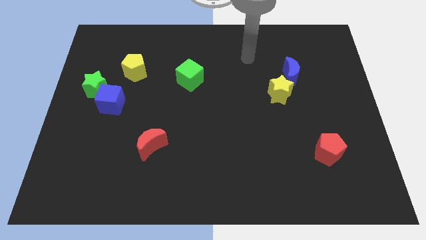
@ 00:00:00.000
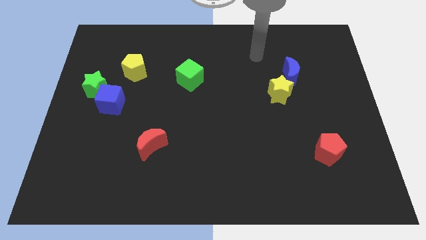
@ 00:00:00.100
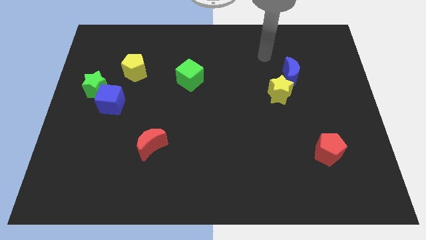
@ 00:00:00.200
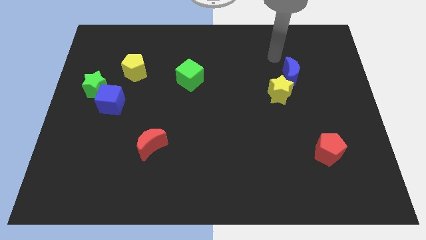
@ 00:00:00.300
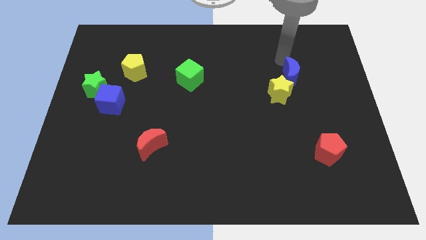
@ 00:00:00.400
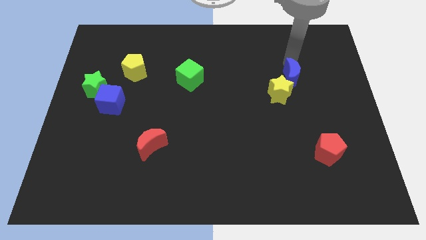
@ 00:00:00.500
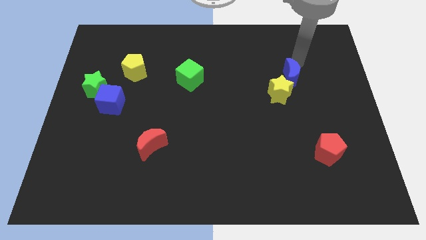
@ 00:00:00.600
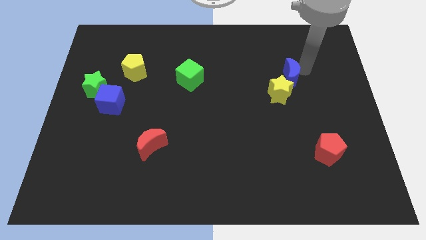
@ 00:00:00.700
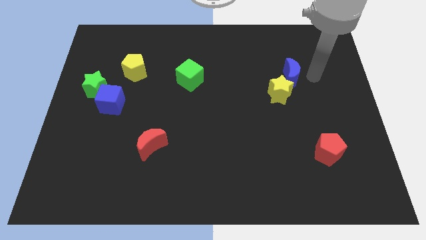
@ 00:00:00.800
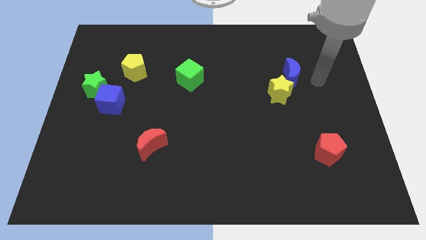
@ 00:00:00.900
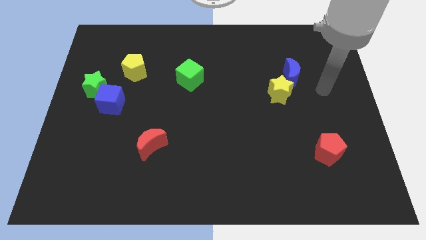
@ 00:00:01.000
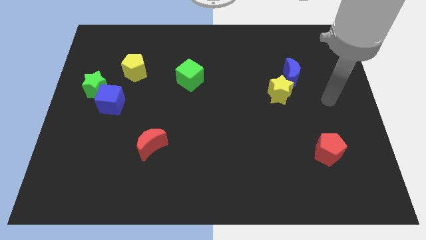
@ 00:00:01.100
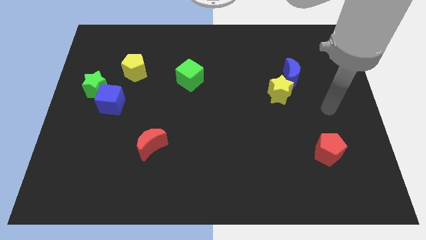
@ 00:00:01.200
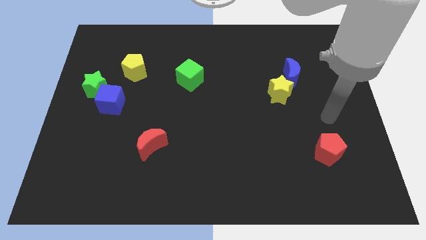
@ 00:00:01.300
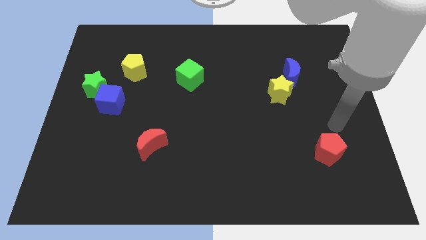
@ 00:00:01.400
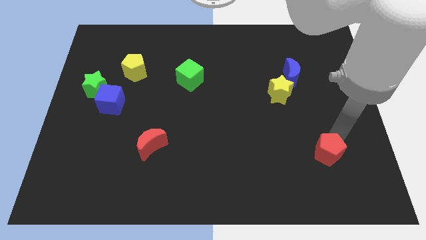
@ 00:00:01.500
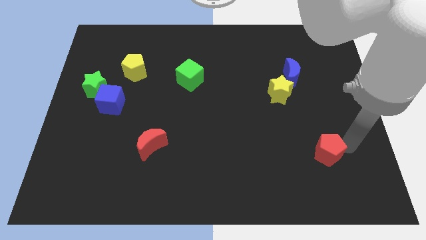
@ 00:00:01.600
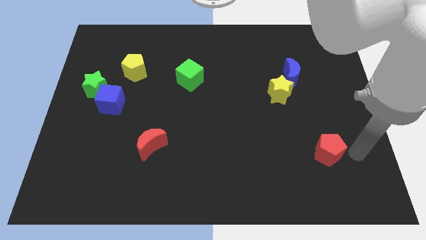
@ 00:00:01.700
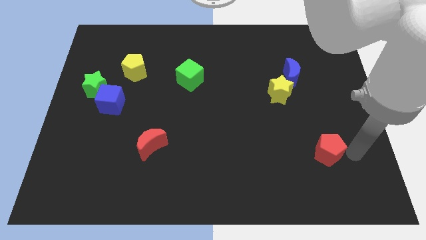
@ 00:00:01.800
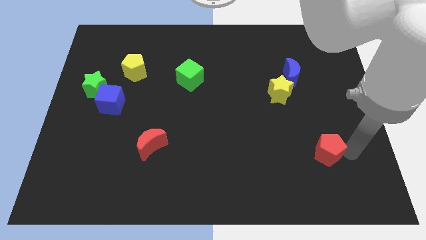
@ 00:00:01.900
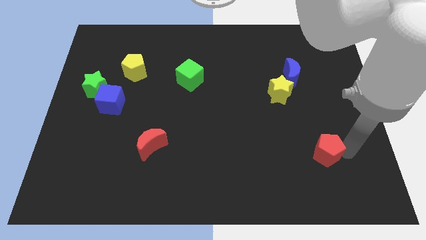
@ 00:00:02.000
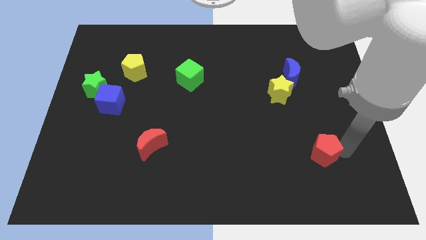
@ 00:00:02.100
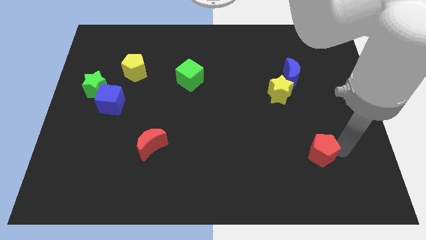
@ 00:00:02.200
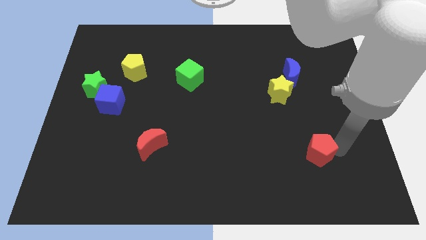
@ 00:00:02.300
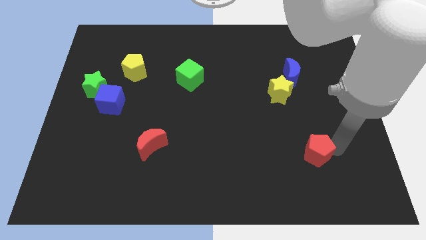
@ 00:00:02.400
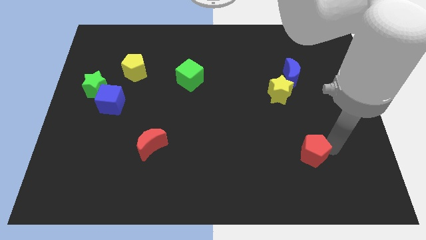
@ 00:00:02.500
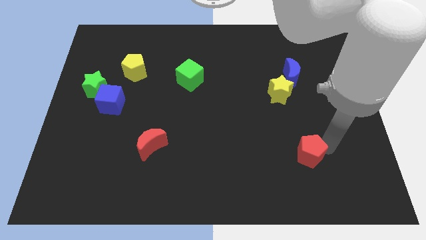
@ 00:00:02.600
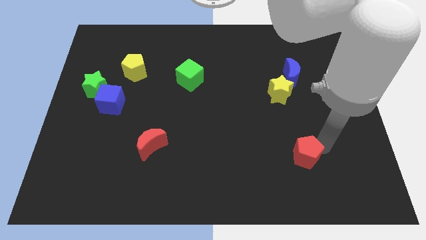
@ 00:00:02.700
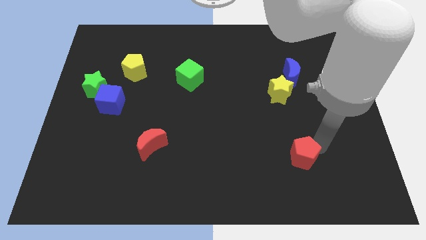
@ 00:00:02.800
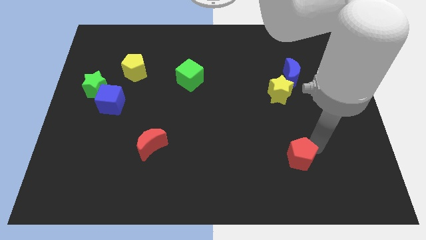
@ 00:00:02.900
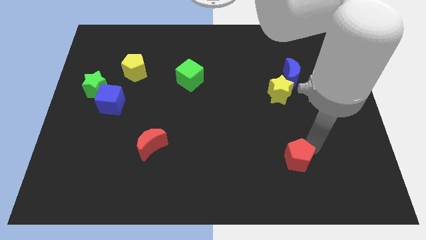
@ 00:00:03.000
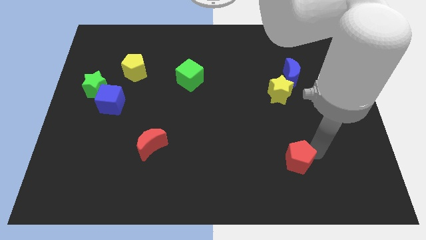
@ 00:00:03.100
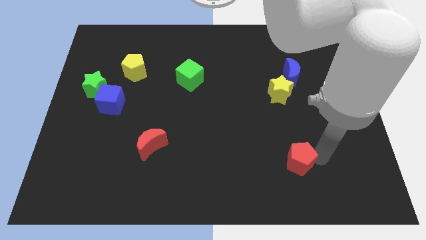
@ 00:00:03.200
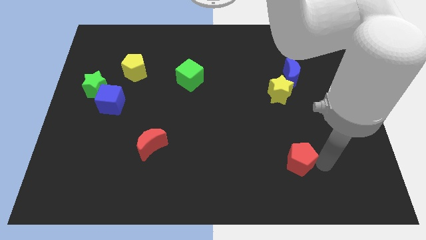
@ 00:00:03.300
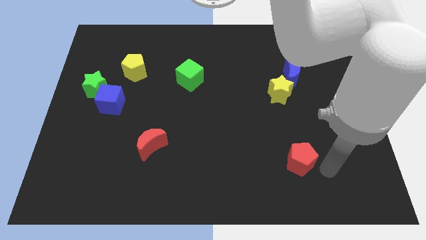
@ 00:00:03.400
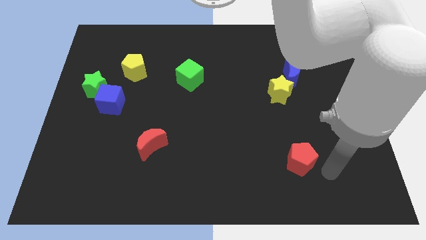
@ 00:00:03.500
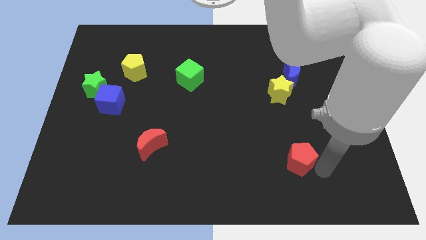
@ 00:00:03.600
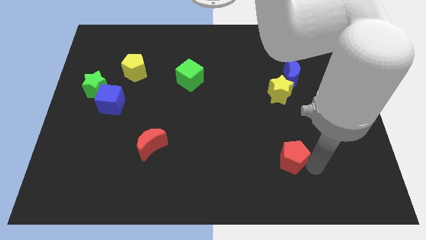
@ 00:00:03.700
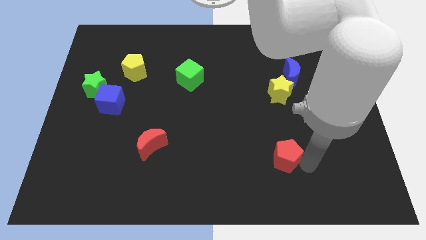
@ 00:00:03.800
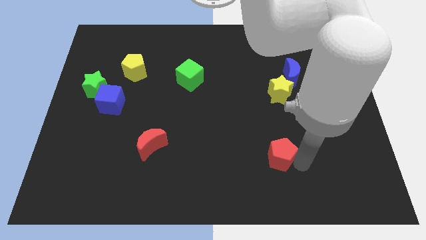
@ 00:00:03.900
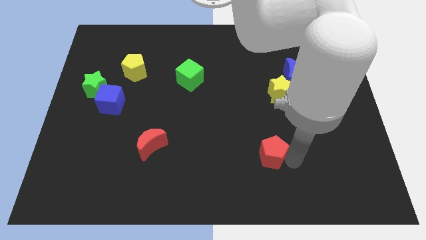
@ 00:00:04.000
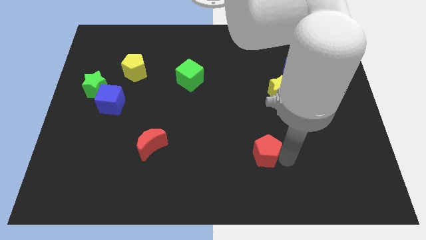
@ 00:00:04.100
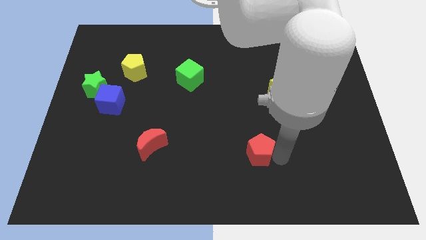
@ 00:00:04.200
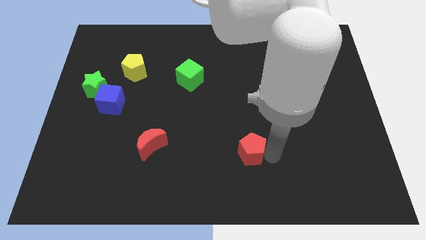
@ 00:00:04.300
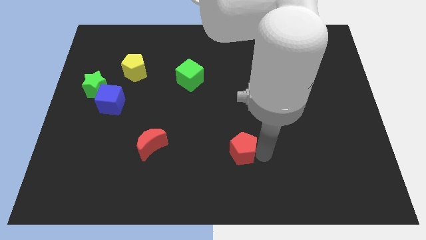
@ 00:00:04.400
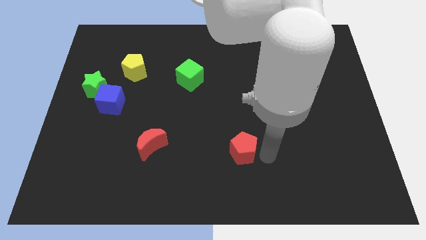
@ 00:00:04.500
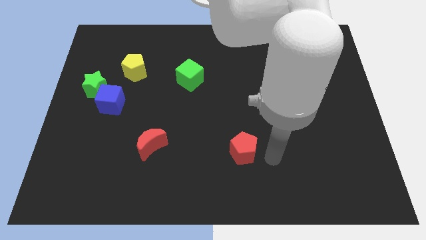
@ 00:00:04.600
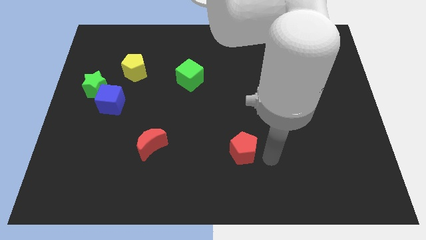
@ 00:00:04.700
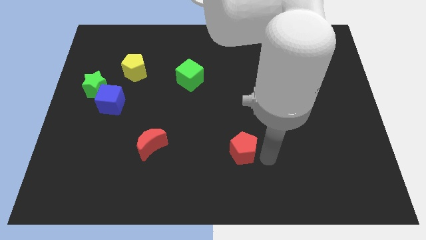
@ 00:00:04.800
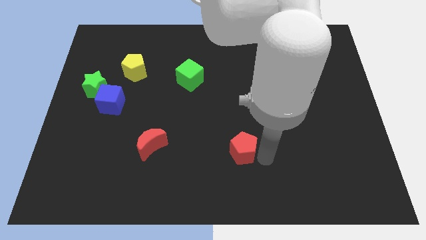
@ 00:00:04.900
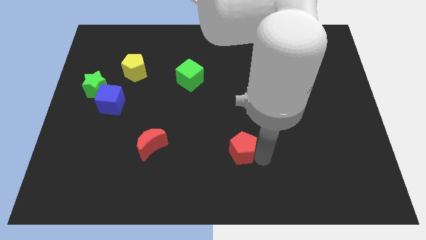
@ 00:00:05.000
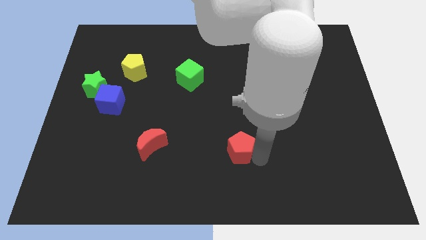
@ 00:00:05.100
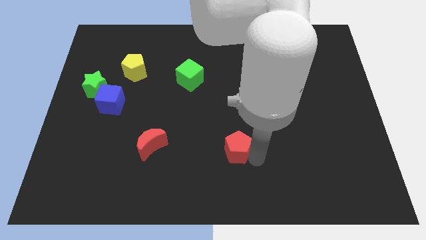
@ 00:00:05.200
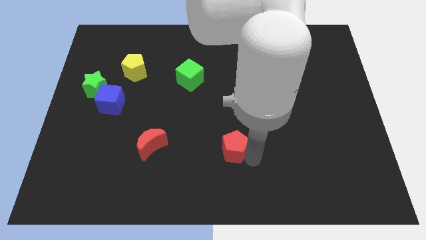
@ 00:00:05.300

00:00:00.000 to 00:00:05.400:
slide the red pentagon to the left

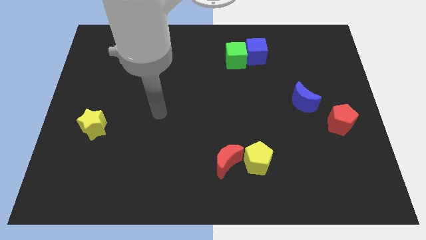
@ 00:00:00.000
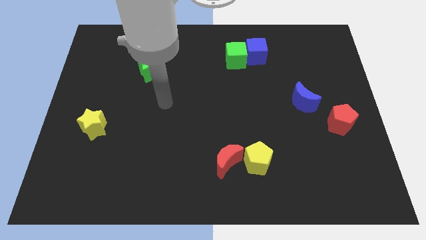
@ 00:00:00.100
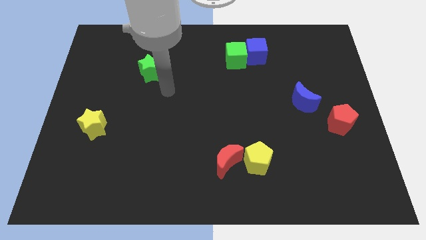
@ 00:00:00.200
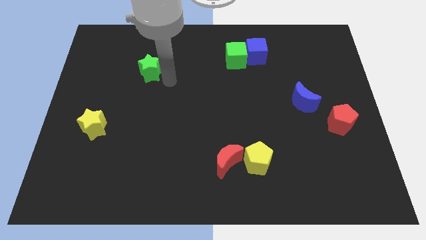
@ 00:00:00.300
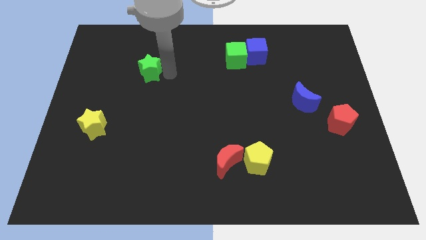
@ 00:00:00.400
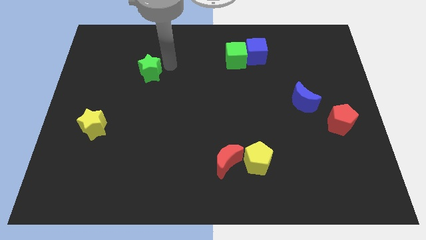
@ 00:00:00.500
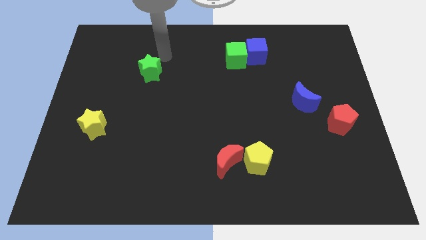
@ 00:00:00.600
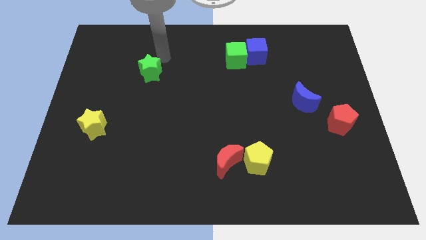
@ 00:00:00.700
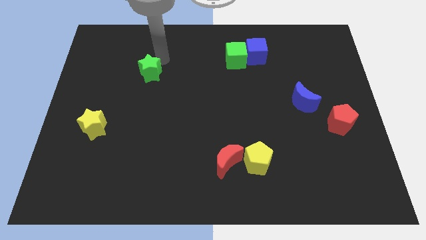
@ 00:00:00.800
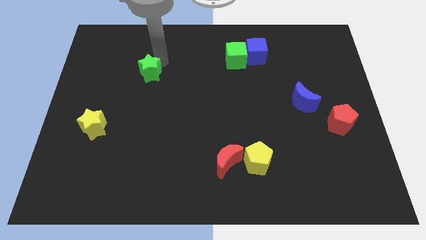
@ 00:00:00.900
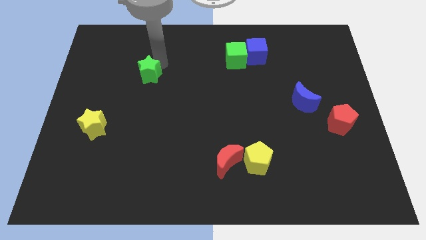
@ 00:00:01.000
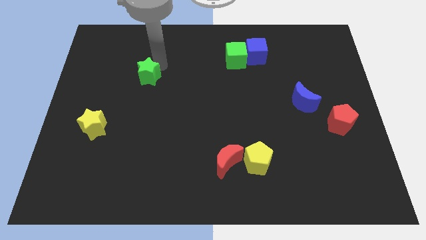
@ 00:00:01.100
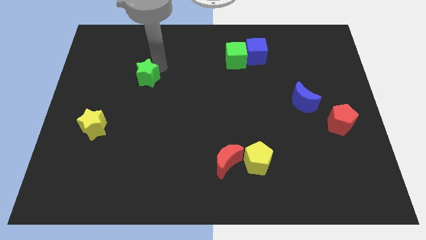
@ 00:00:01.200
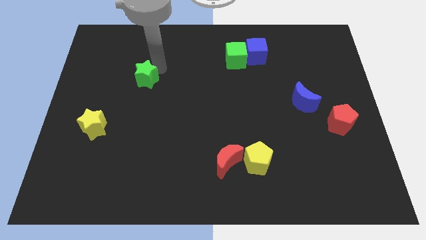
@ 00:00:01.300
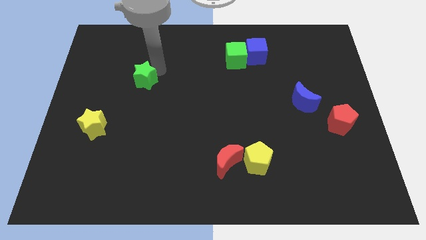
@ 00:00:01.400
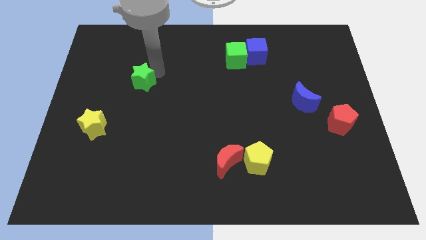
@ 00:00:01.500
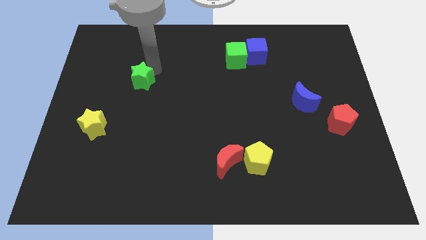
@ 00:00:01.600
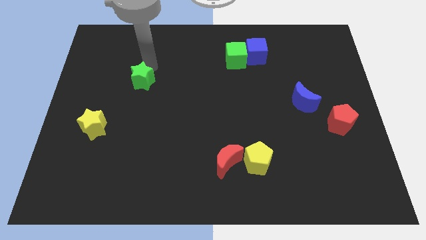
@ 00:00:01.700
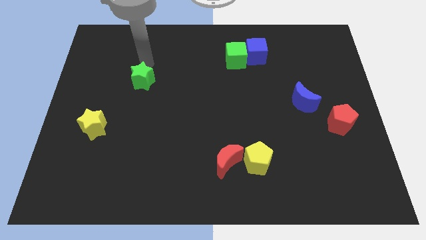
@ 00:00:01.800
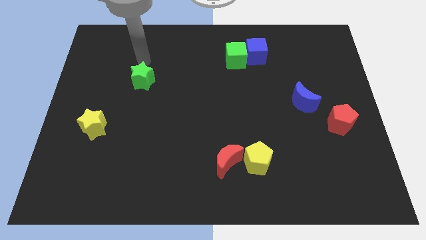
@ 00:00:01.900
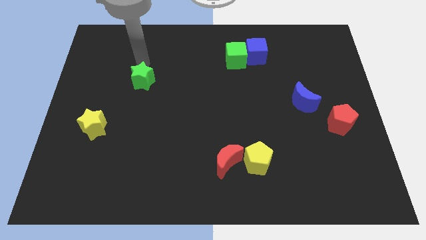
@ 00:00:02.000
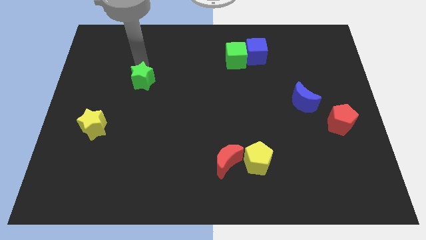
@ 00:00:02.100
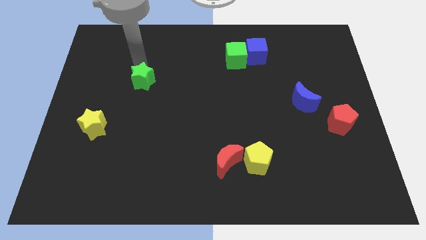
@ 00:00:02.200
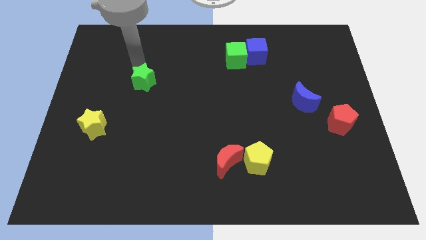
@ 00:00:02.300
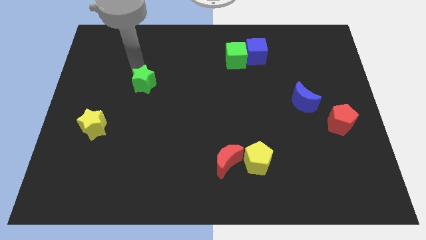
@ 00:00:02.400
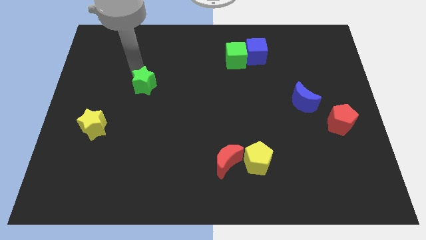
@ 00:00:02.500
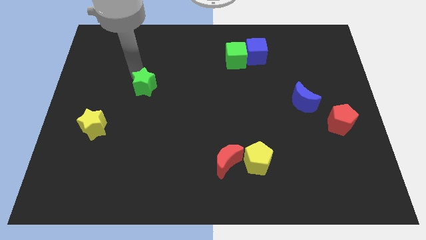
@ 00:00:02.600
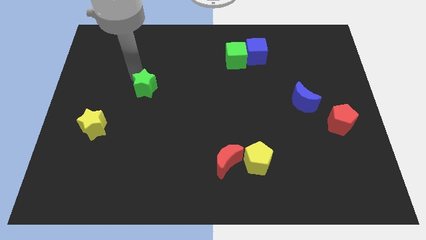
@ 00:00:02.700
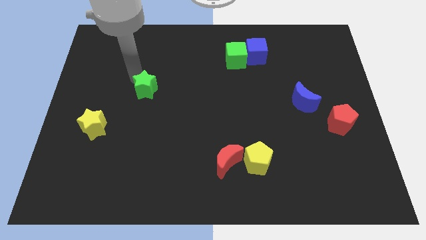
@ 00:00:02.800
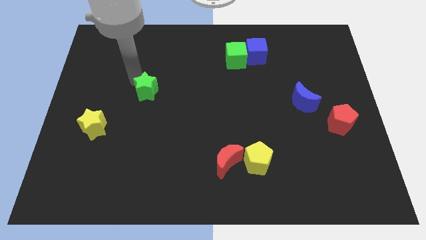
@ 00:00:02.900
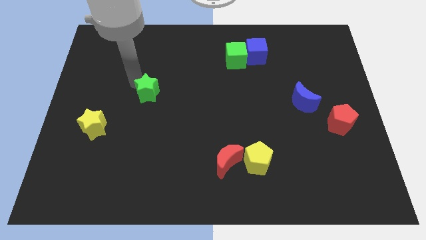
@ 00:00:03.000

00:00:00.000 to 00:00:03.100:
push the green star somewhat downwards
